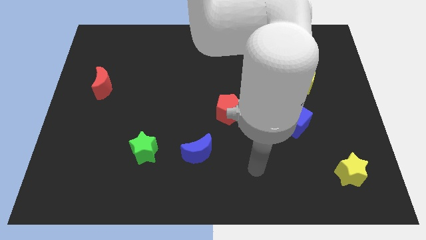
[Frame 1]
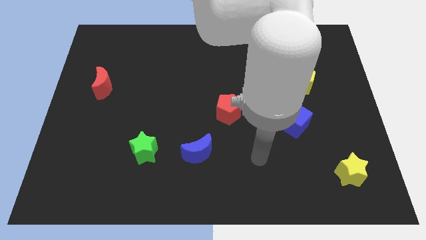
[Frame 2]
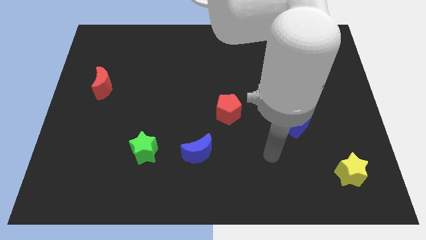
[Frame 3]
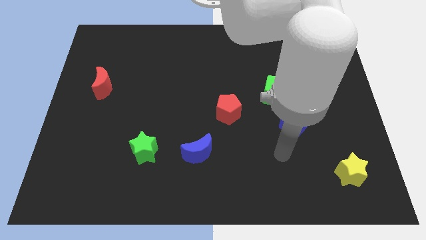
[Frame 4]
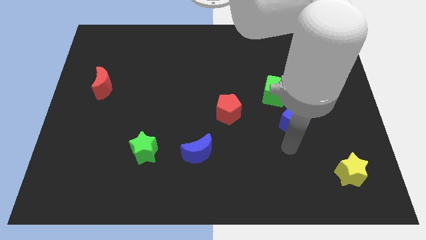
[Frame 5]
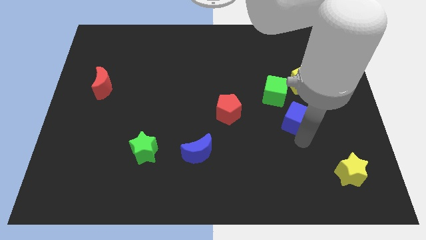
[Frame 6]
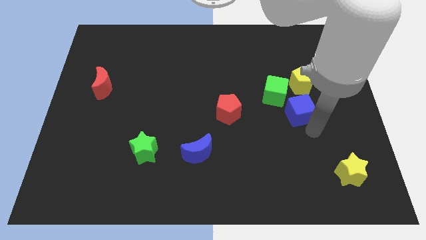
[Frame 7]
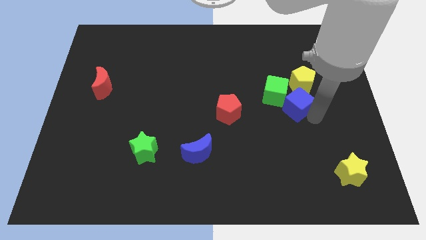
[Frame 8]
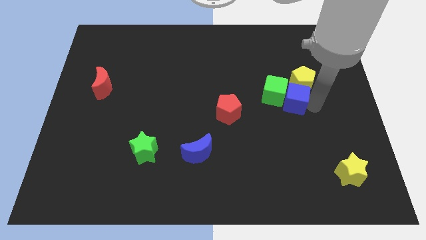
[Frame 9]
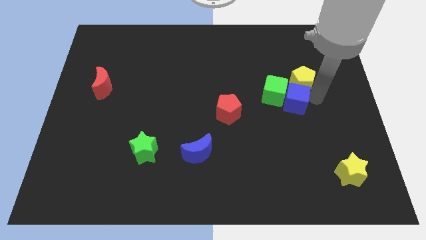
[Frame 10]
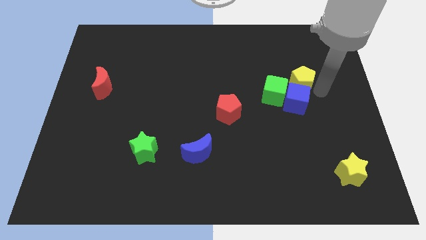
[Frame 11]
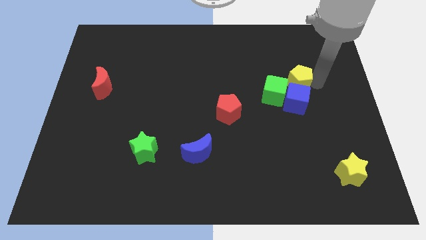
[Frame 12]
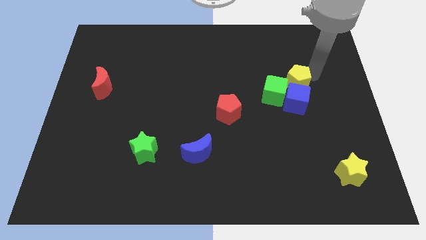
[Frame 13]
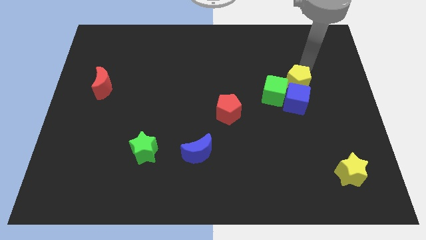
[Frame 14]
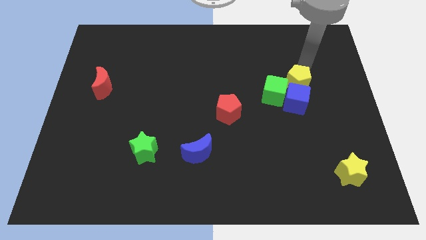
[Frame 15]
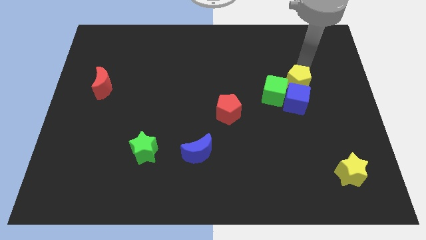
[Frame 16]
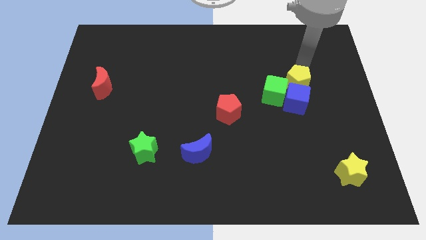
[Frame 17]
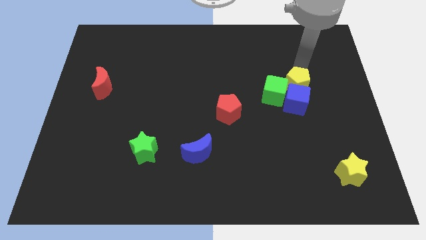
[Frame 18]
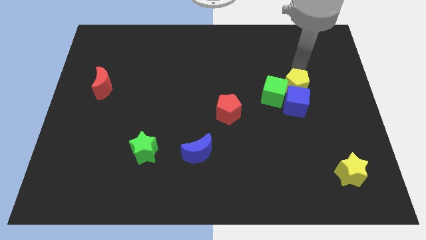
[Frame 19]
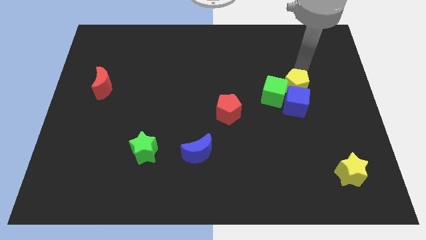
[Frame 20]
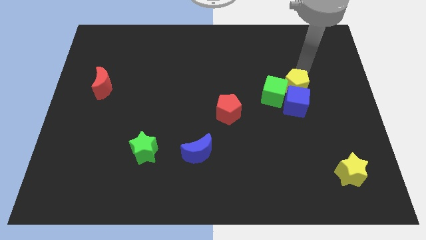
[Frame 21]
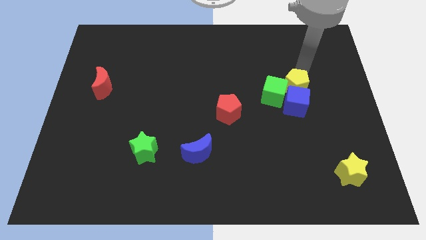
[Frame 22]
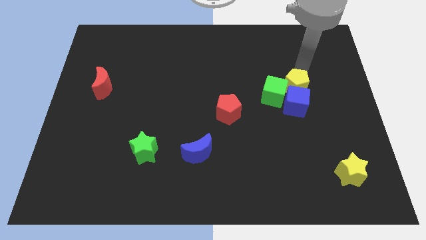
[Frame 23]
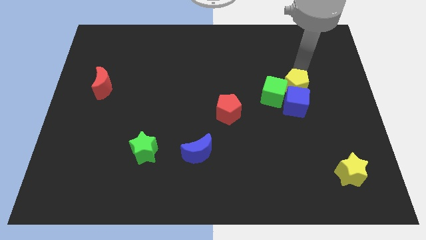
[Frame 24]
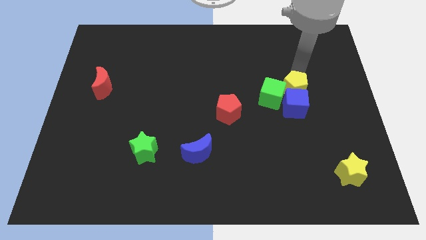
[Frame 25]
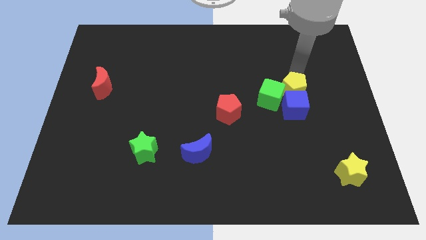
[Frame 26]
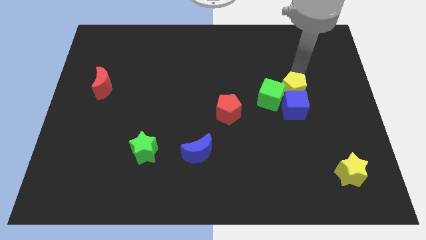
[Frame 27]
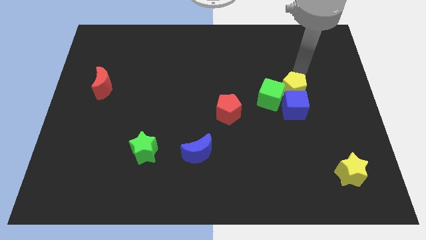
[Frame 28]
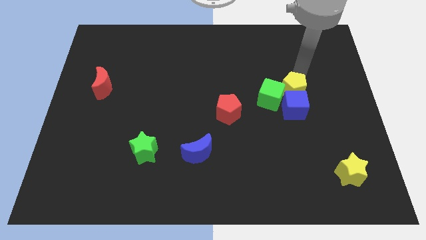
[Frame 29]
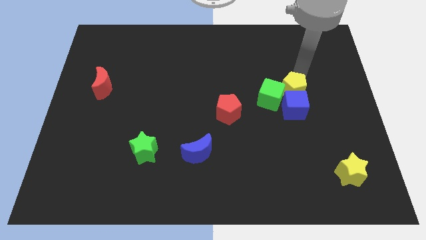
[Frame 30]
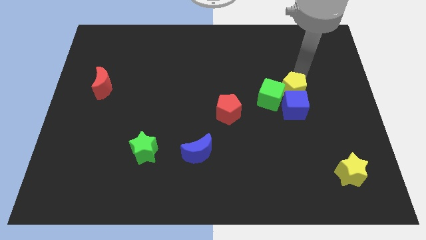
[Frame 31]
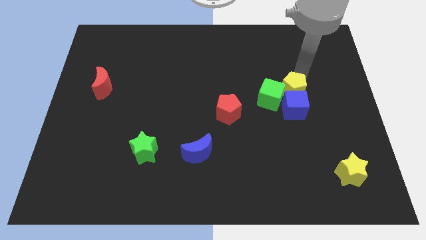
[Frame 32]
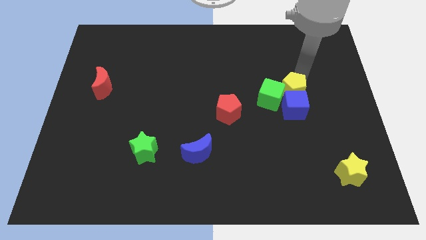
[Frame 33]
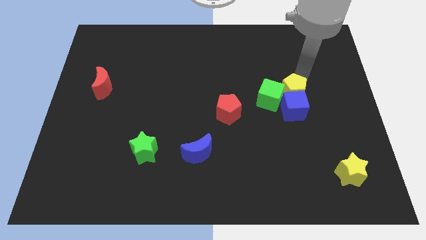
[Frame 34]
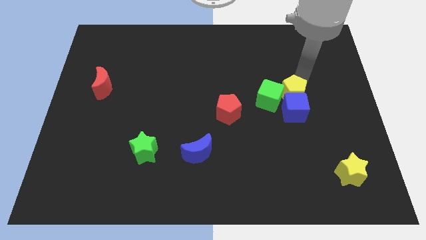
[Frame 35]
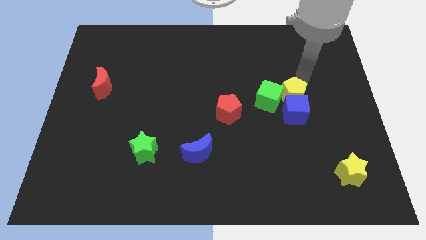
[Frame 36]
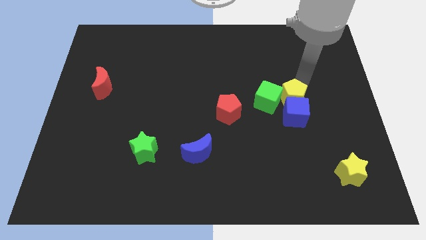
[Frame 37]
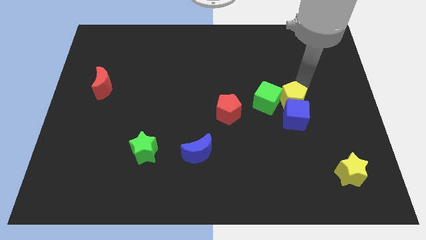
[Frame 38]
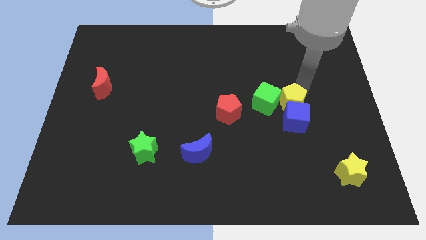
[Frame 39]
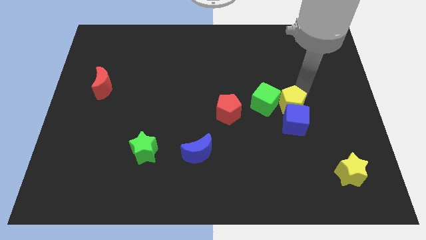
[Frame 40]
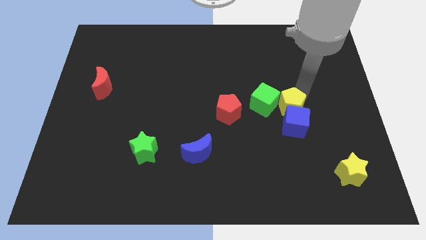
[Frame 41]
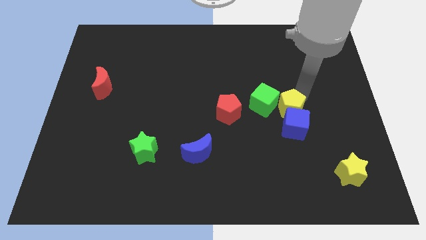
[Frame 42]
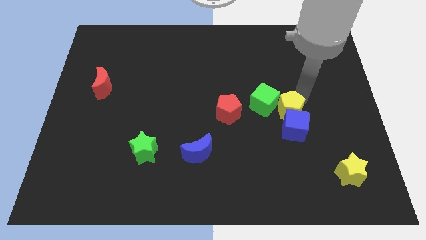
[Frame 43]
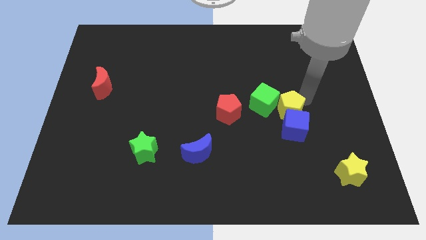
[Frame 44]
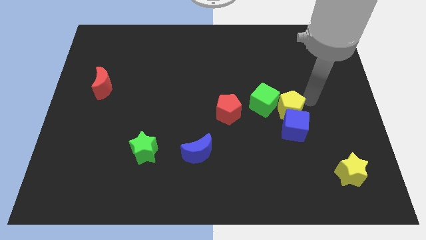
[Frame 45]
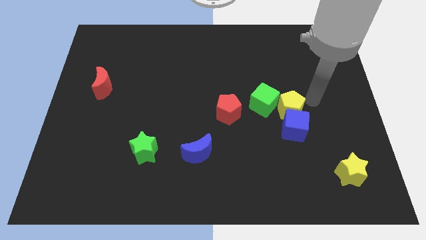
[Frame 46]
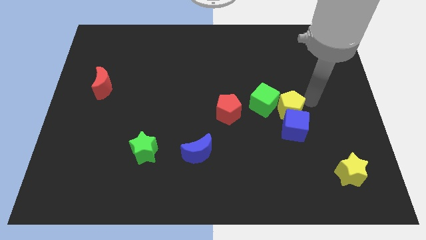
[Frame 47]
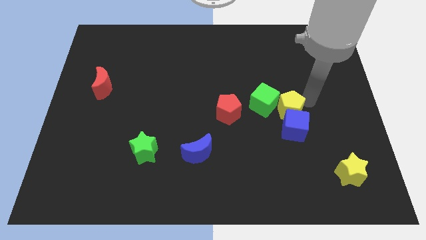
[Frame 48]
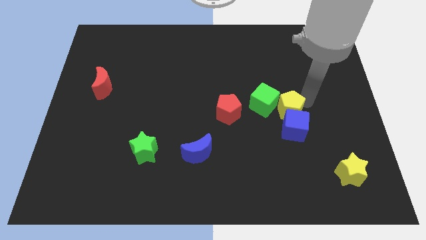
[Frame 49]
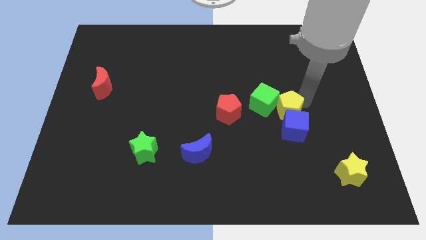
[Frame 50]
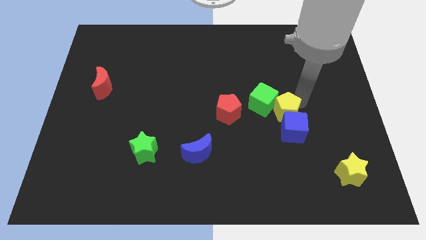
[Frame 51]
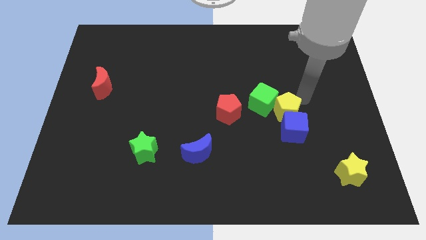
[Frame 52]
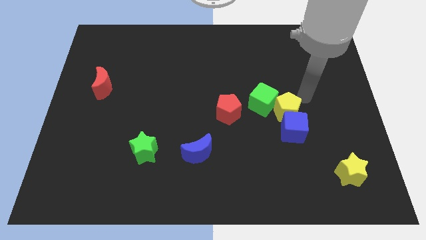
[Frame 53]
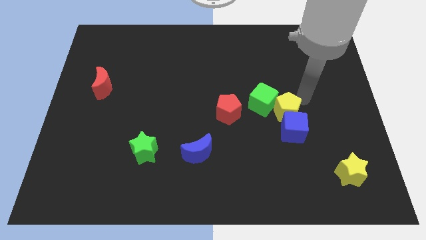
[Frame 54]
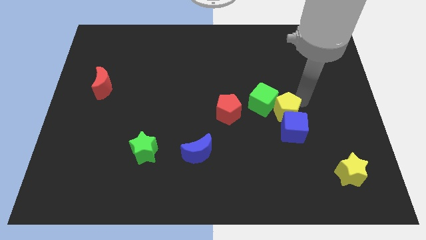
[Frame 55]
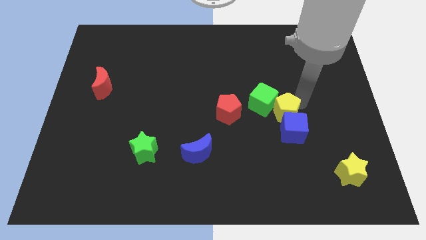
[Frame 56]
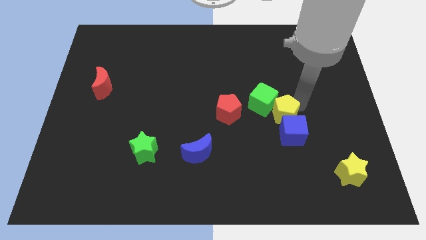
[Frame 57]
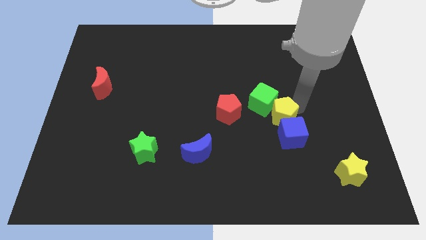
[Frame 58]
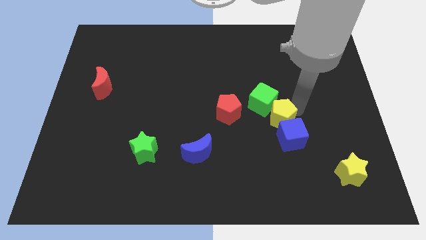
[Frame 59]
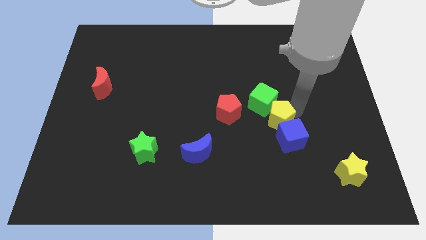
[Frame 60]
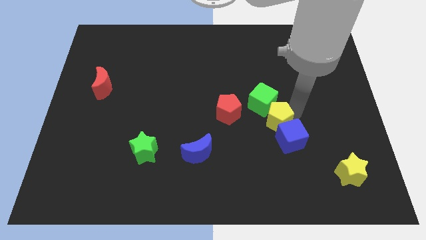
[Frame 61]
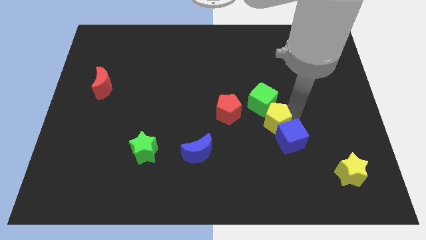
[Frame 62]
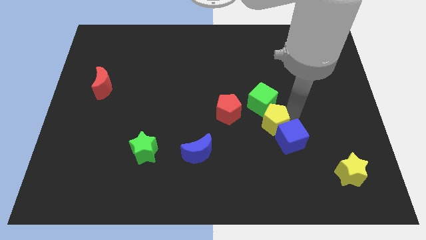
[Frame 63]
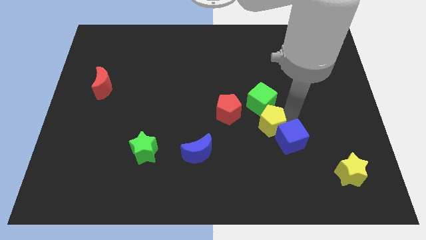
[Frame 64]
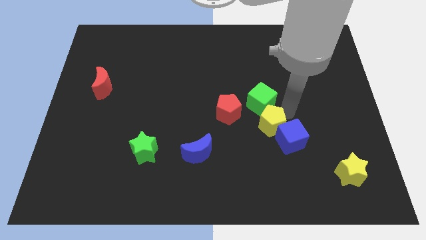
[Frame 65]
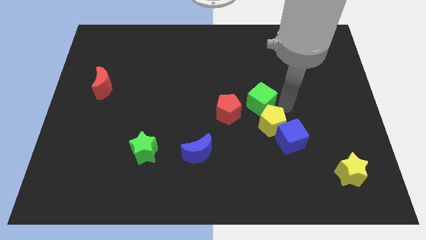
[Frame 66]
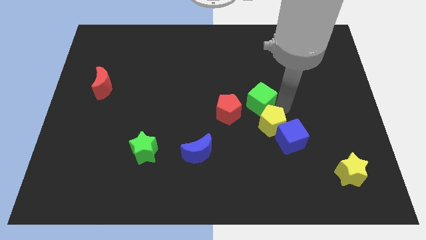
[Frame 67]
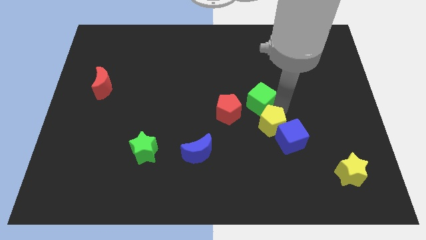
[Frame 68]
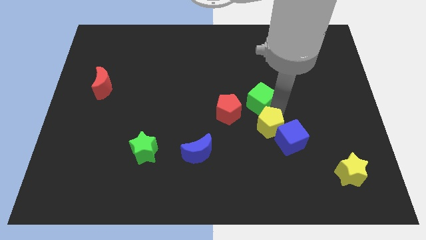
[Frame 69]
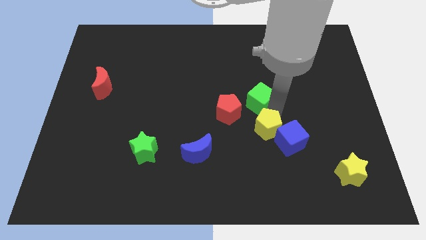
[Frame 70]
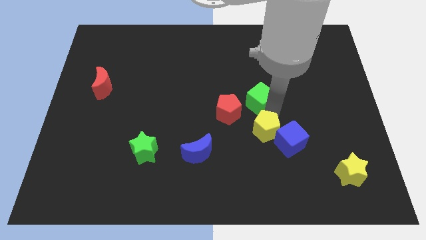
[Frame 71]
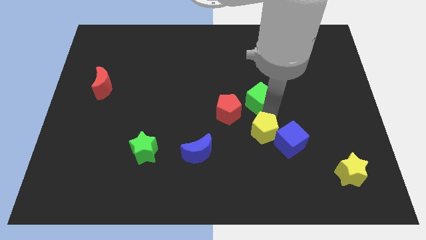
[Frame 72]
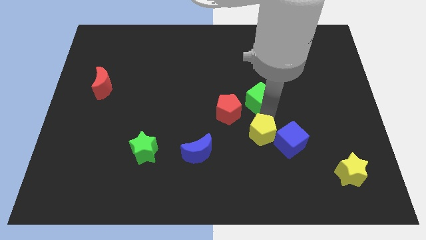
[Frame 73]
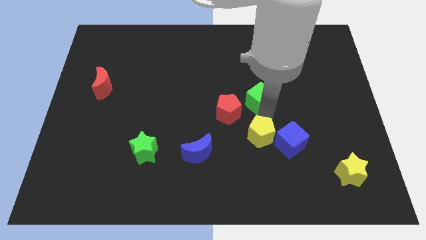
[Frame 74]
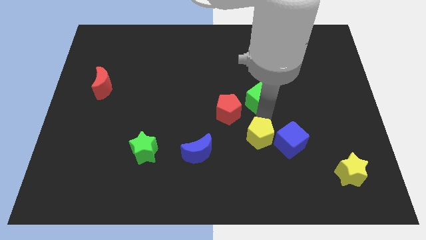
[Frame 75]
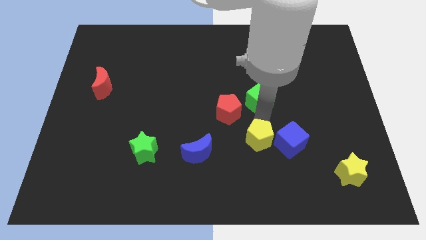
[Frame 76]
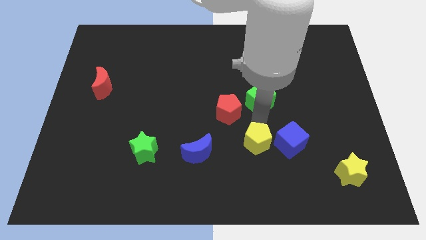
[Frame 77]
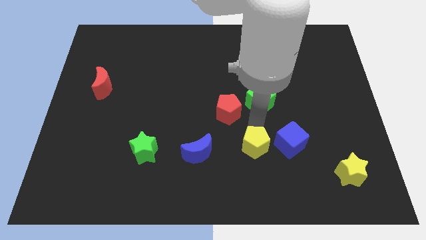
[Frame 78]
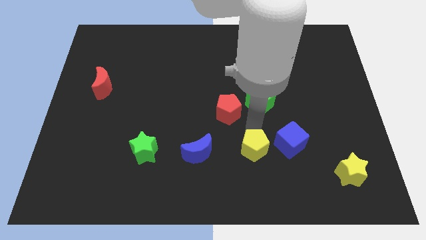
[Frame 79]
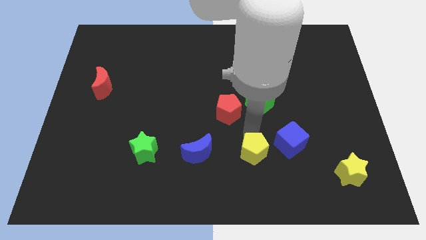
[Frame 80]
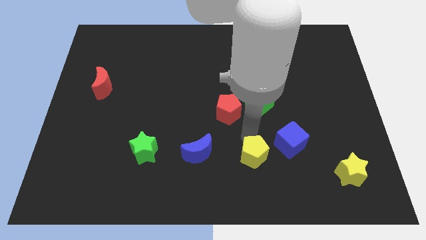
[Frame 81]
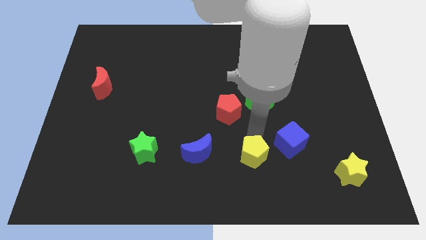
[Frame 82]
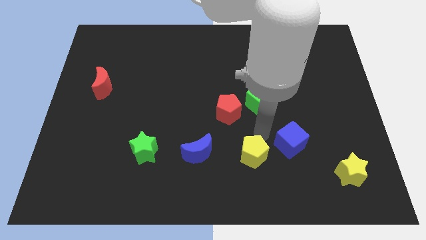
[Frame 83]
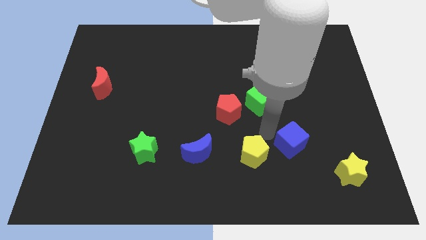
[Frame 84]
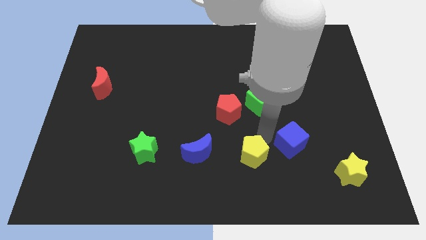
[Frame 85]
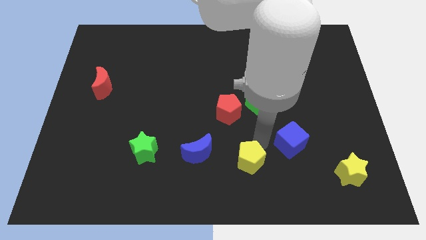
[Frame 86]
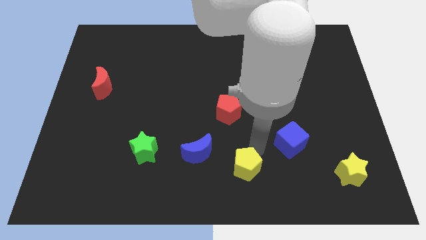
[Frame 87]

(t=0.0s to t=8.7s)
put the yellow pentagon to the bottom
